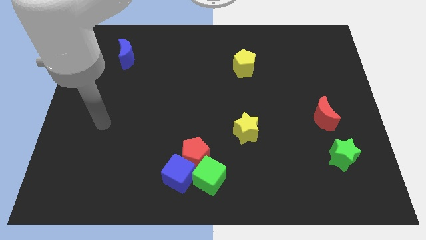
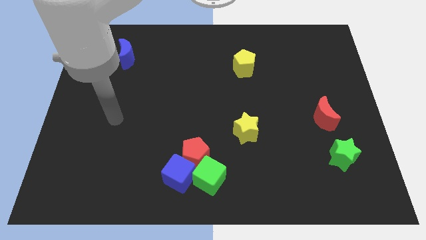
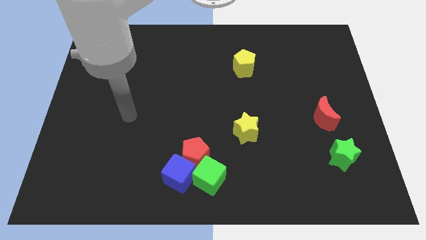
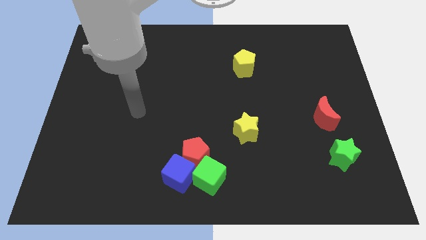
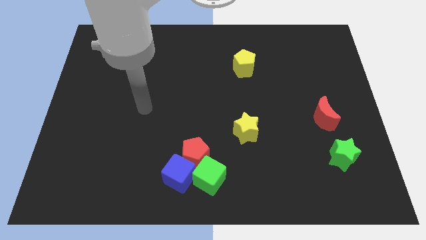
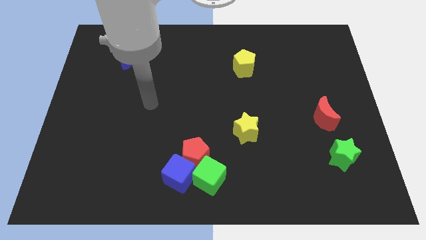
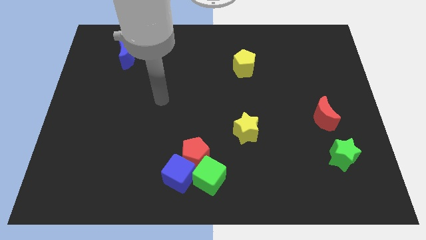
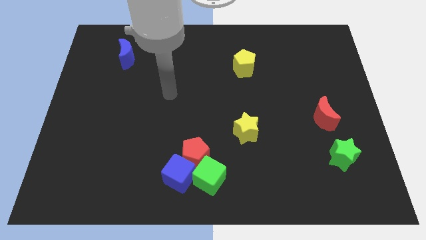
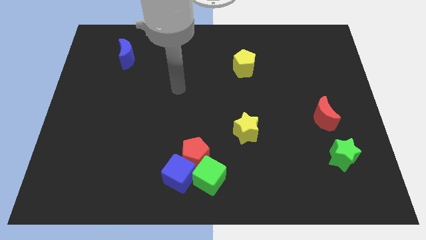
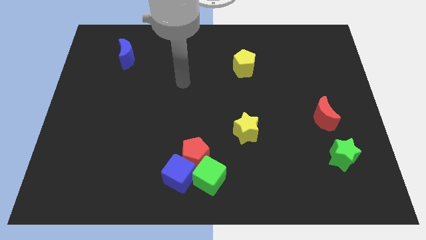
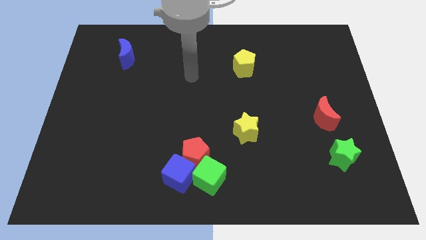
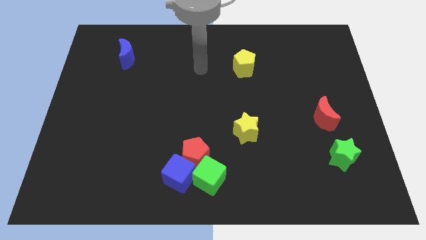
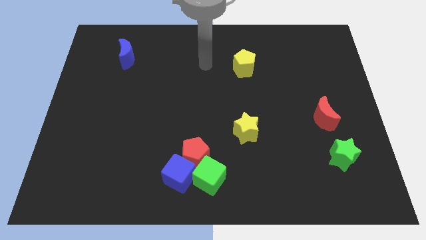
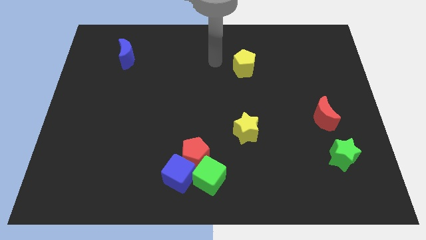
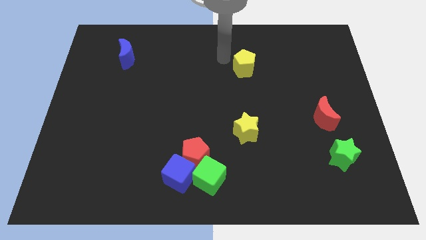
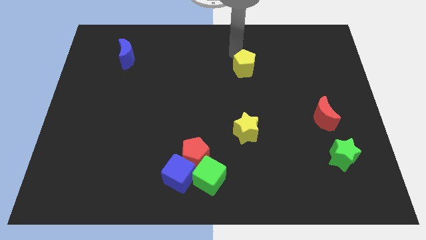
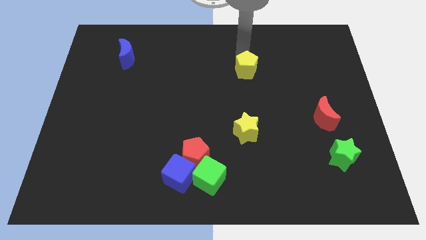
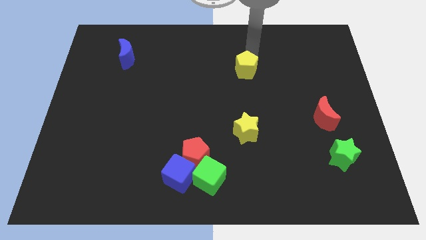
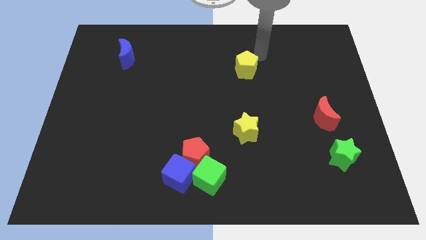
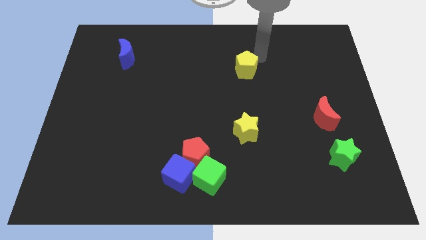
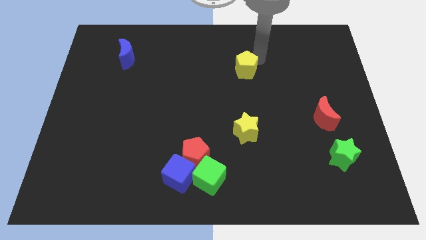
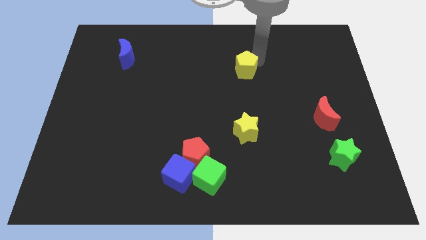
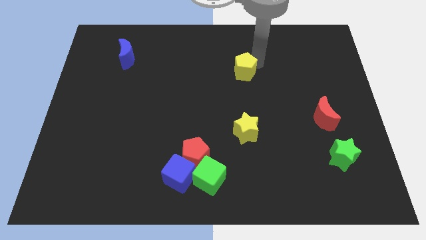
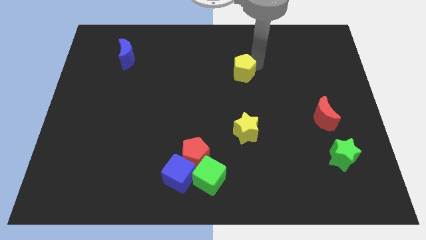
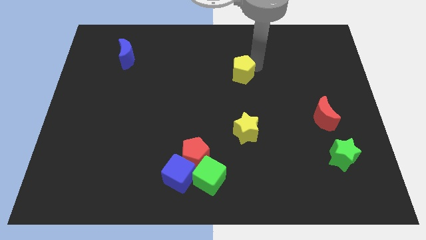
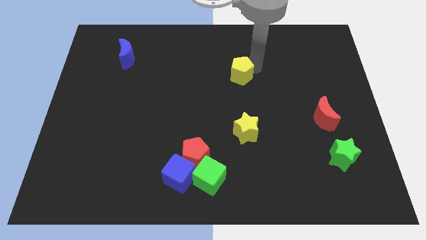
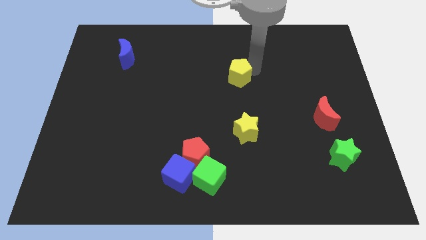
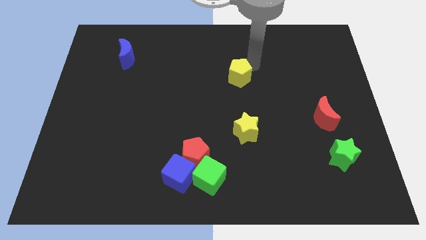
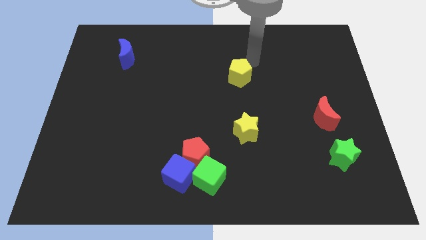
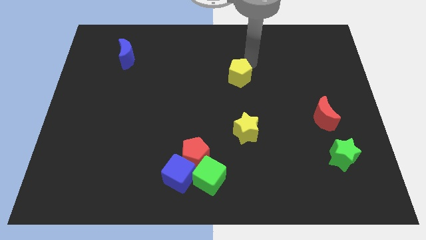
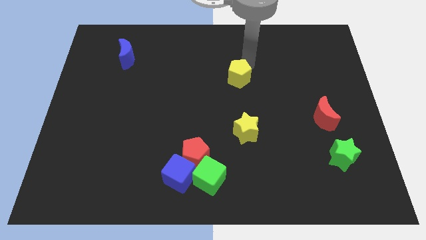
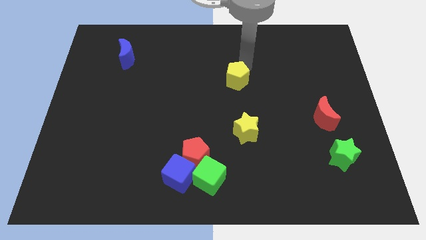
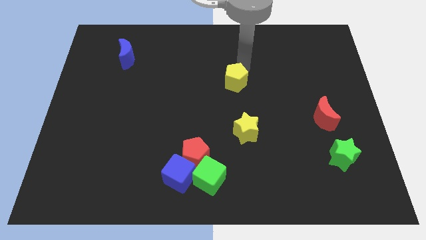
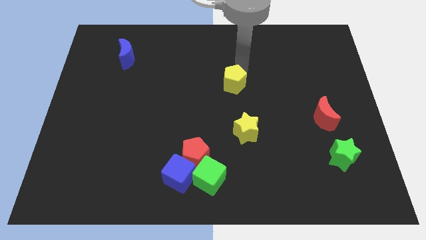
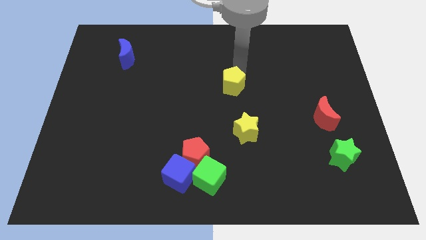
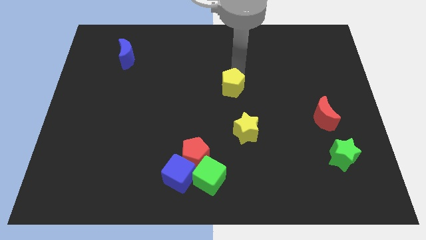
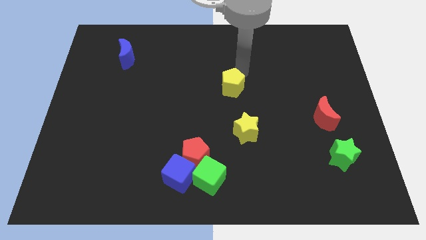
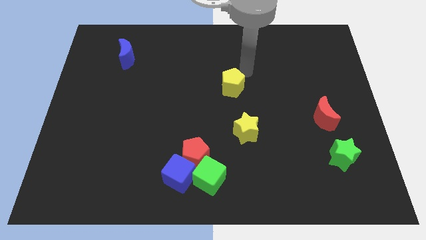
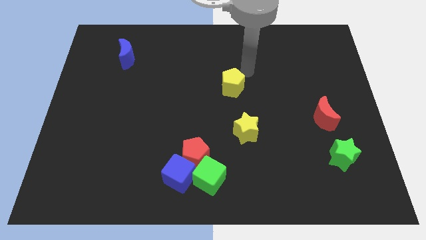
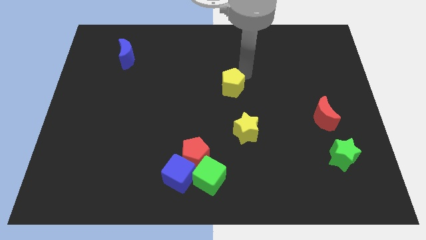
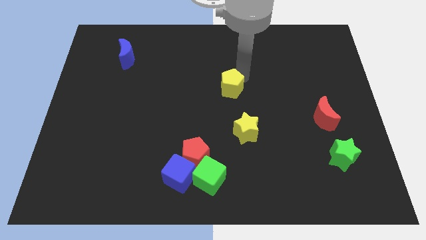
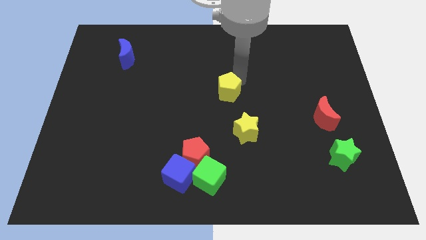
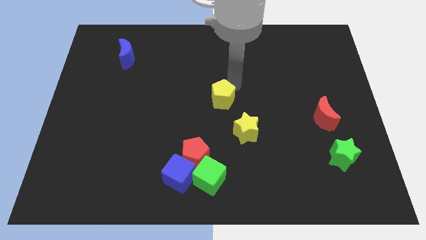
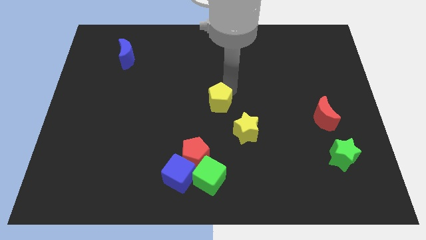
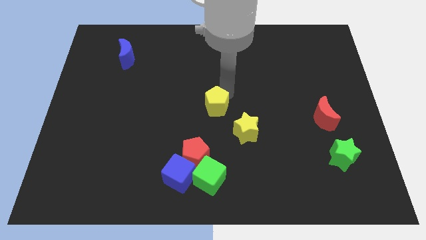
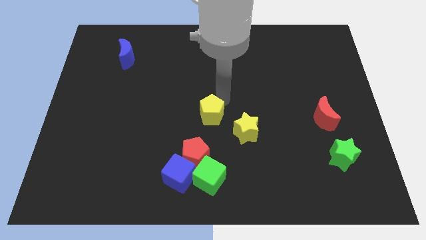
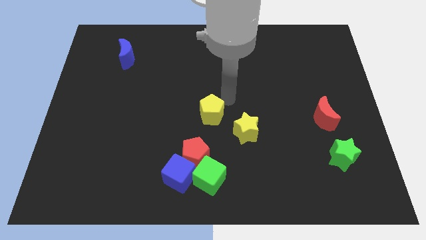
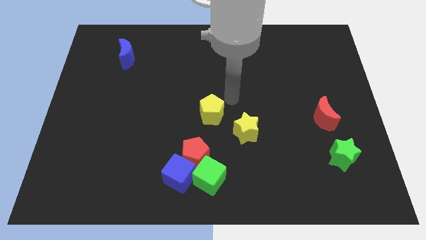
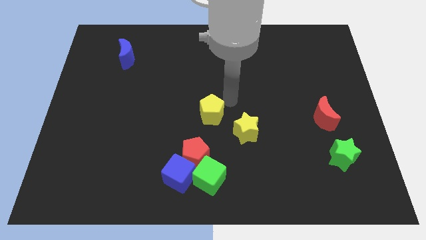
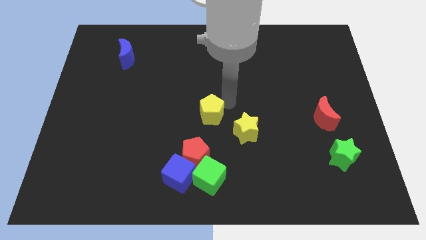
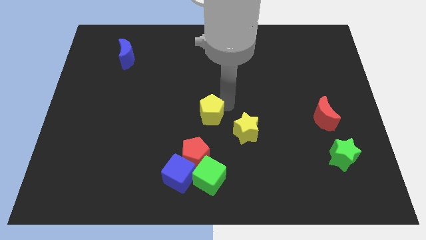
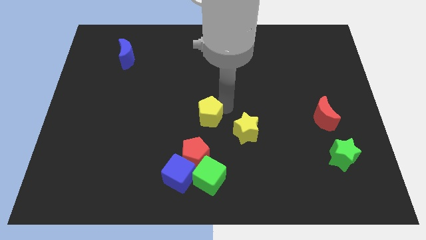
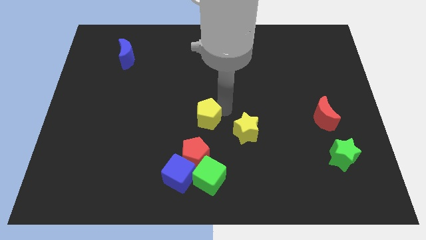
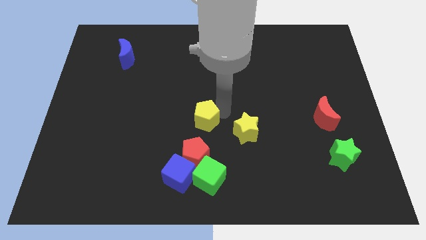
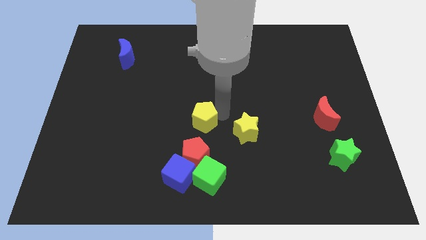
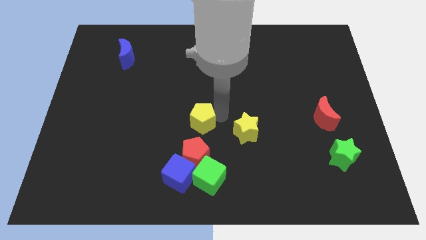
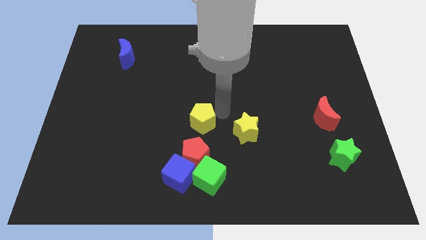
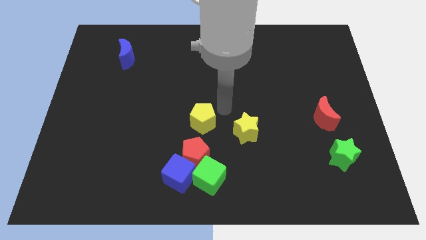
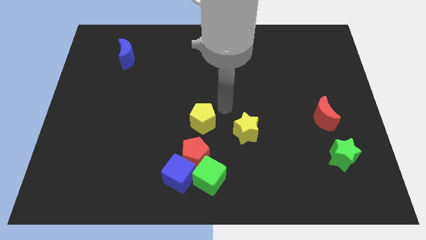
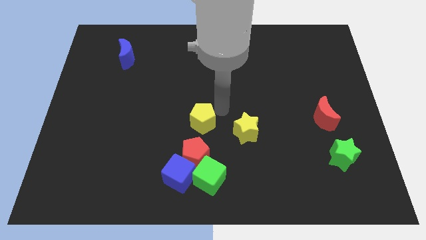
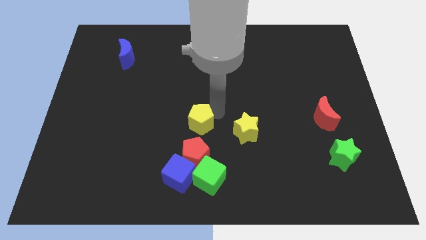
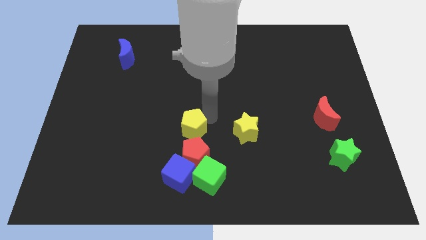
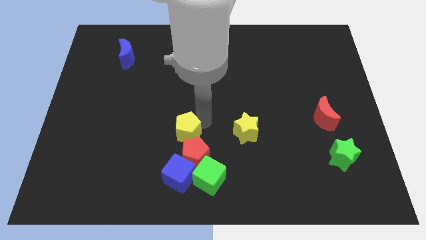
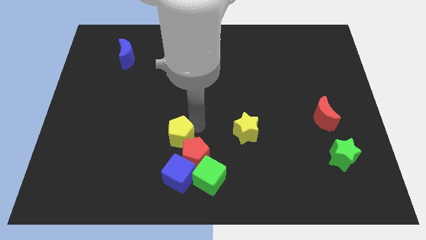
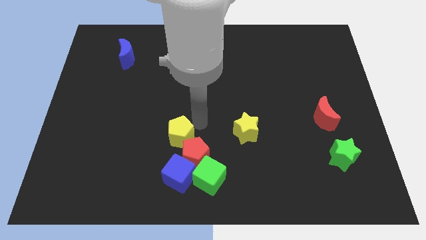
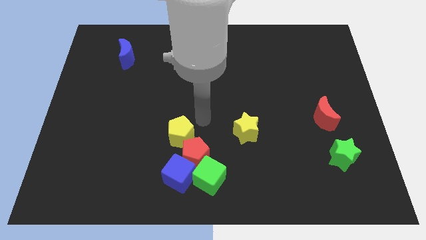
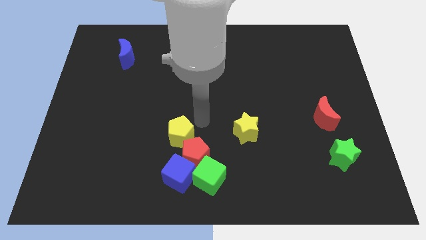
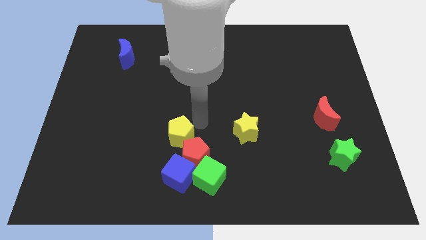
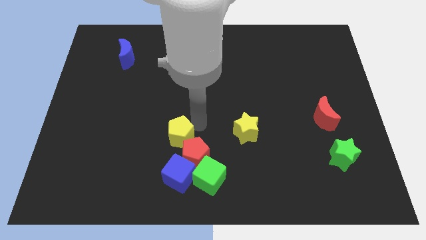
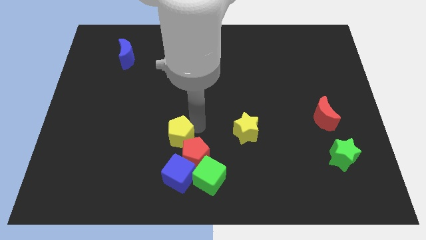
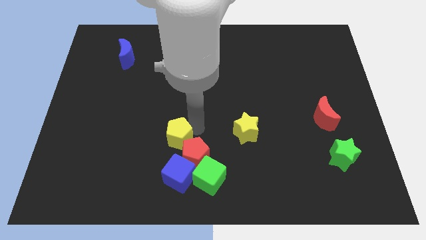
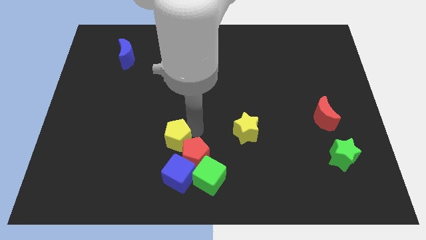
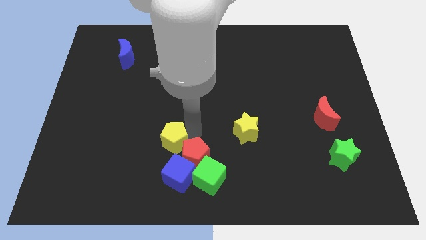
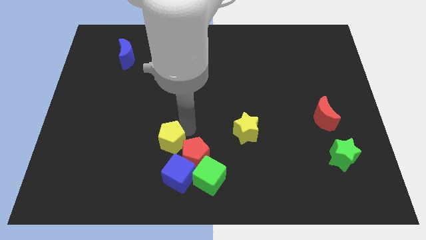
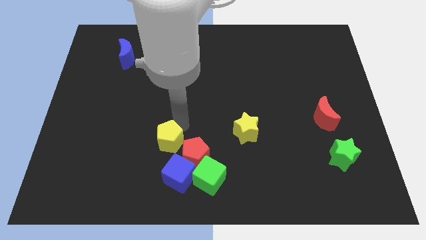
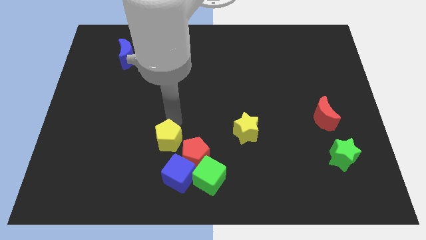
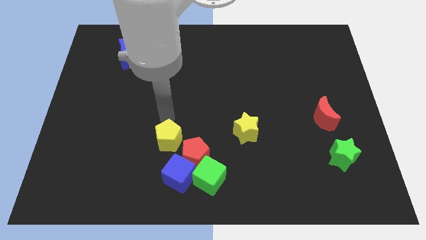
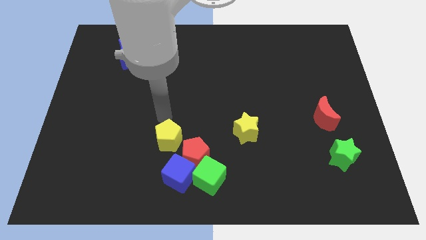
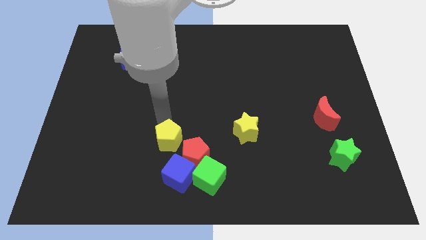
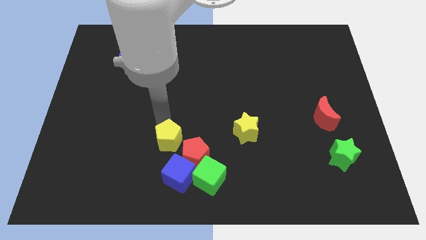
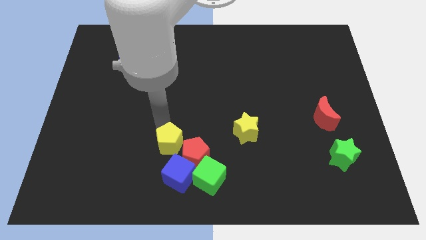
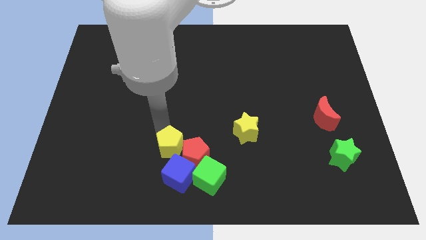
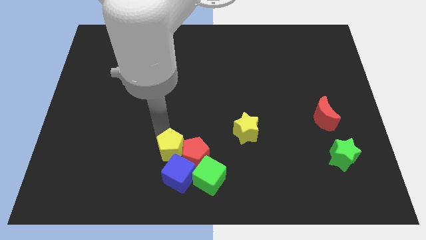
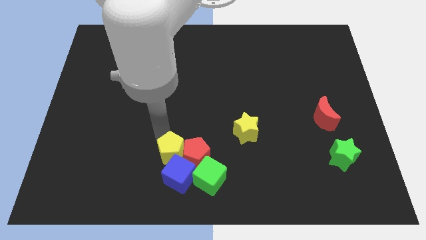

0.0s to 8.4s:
push the yellow pentagon to the blue cube
